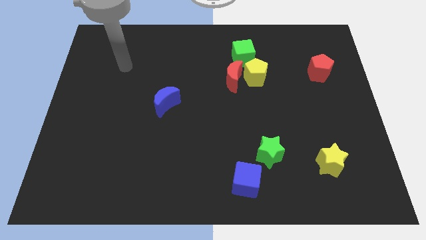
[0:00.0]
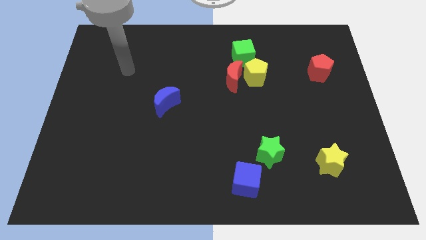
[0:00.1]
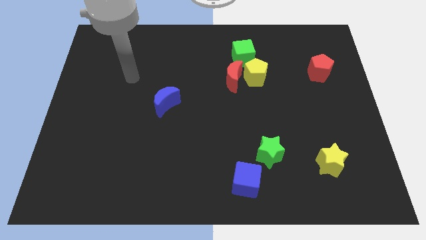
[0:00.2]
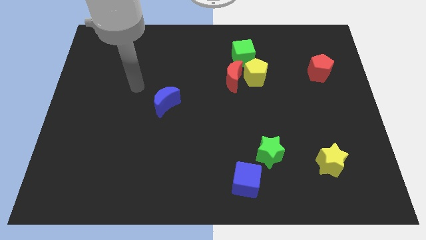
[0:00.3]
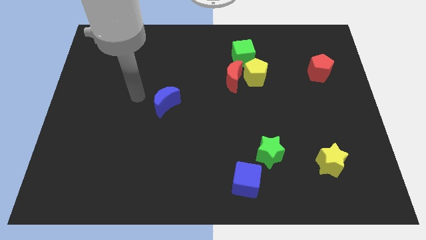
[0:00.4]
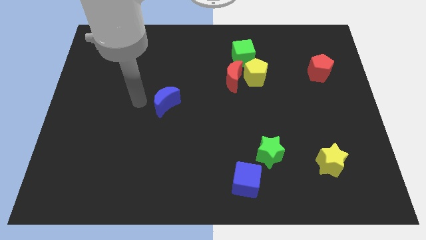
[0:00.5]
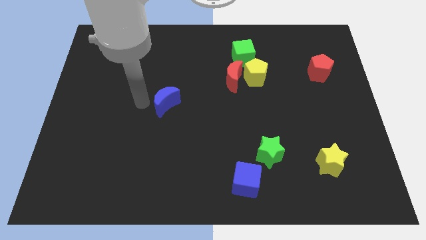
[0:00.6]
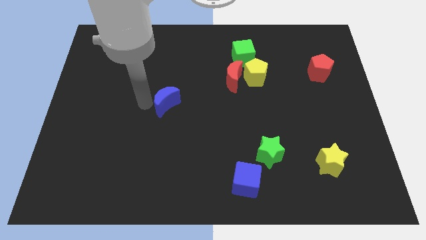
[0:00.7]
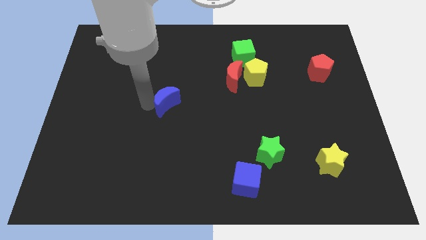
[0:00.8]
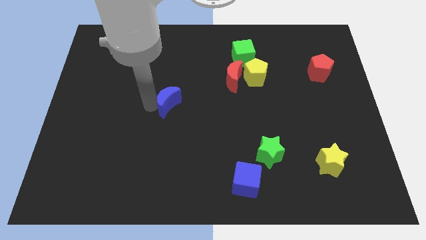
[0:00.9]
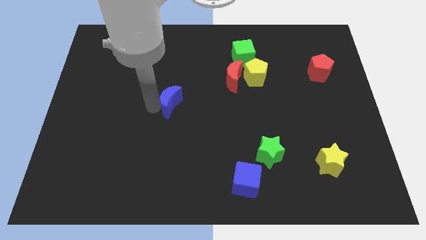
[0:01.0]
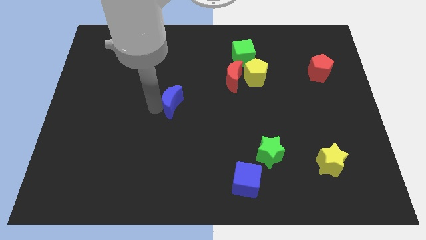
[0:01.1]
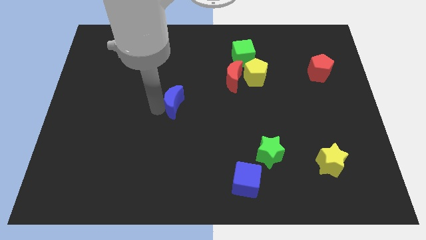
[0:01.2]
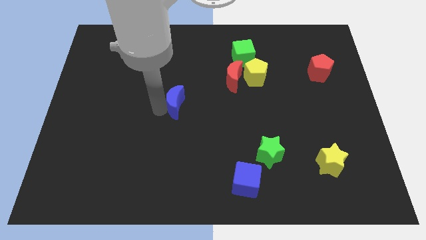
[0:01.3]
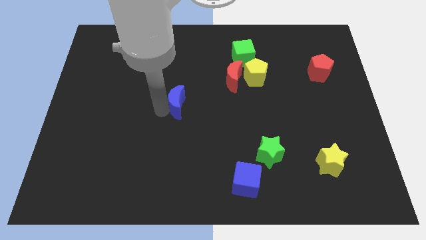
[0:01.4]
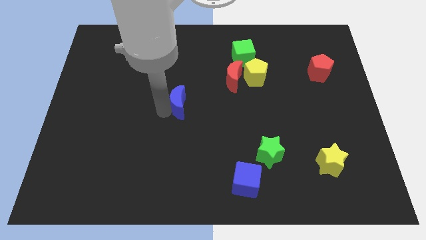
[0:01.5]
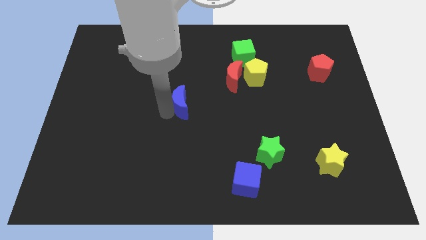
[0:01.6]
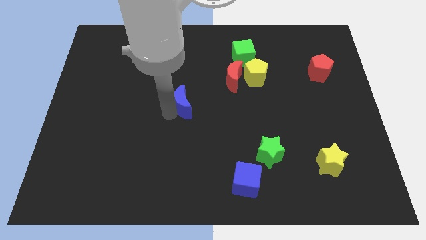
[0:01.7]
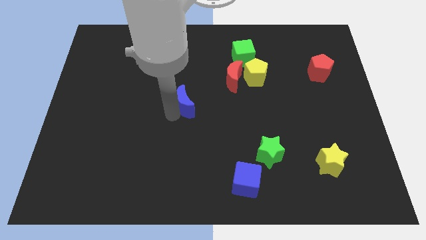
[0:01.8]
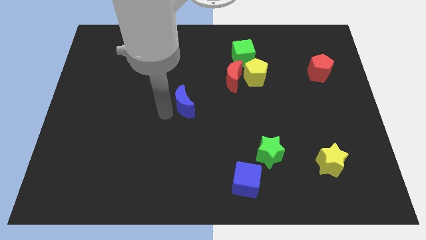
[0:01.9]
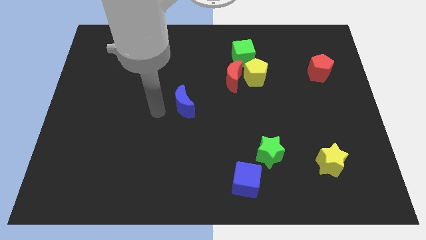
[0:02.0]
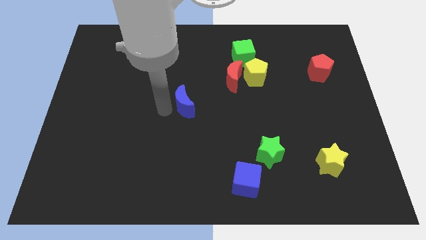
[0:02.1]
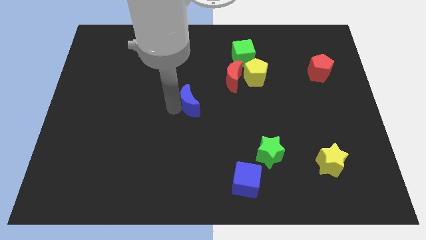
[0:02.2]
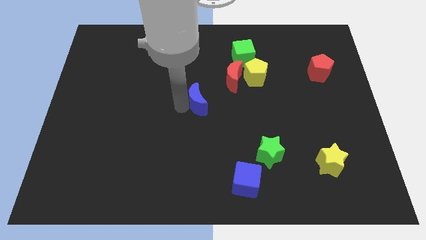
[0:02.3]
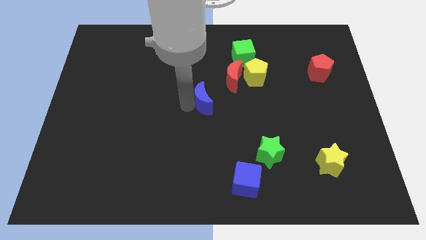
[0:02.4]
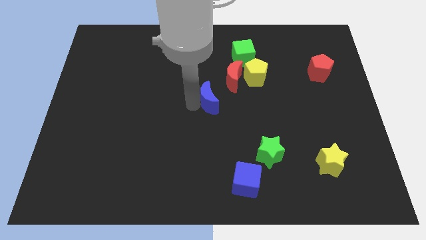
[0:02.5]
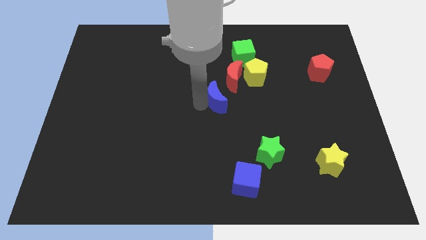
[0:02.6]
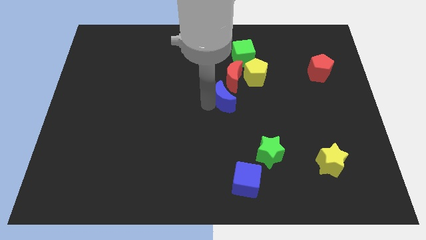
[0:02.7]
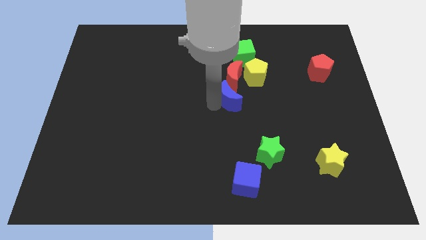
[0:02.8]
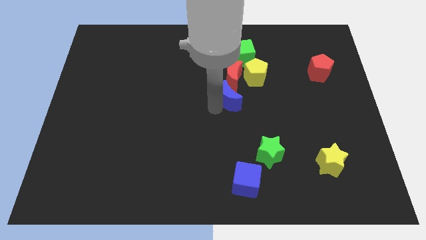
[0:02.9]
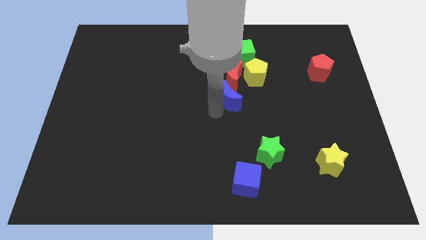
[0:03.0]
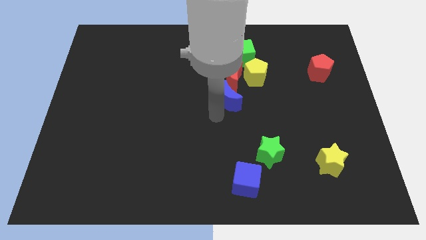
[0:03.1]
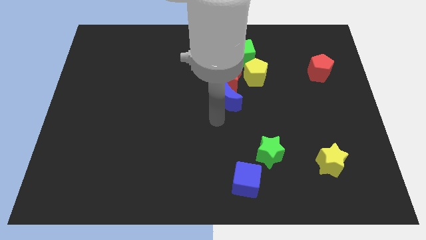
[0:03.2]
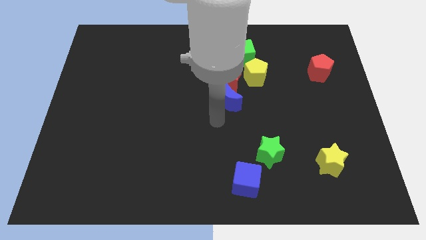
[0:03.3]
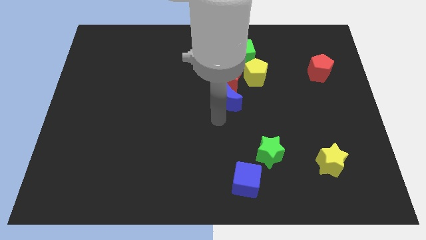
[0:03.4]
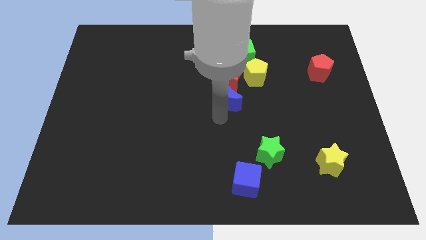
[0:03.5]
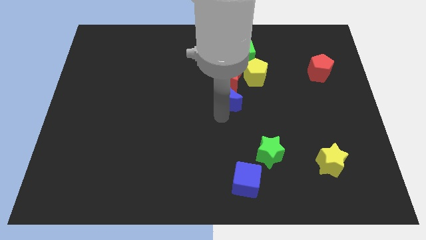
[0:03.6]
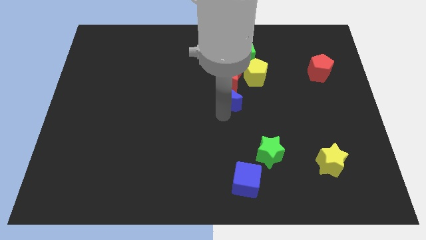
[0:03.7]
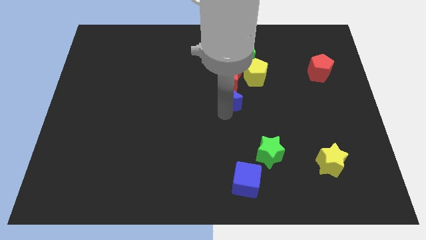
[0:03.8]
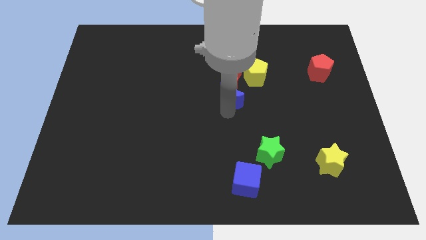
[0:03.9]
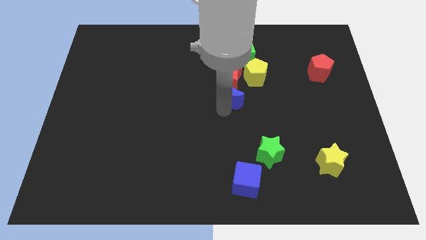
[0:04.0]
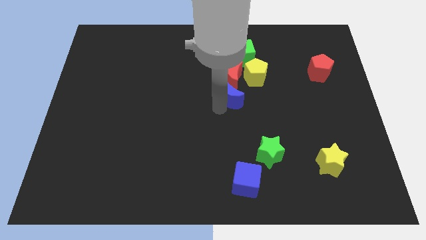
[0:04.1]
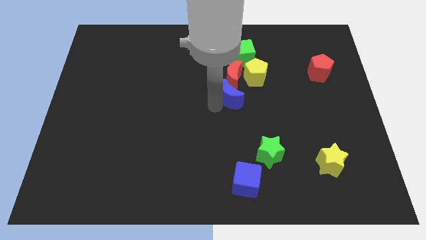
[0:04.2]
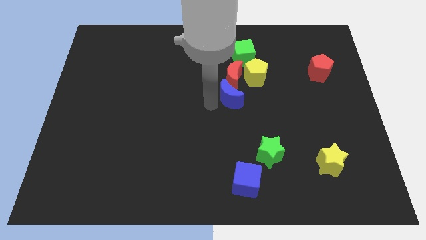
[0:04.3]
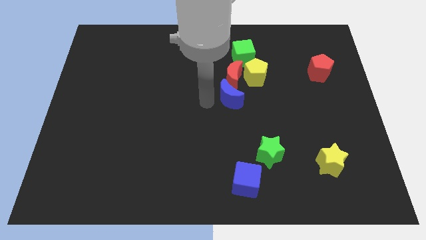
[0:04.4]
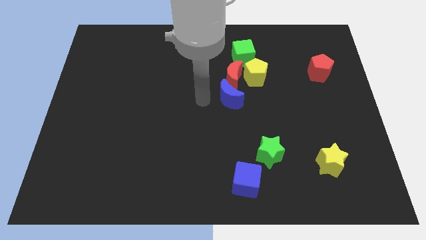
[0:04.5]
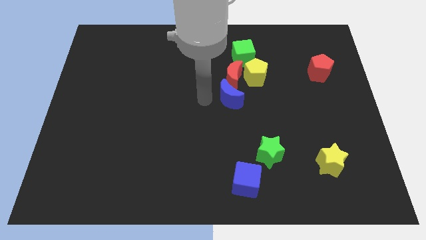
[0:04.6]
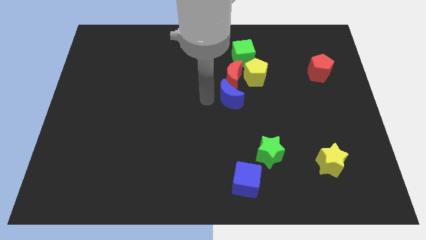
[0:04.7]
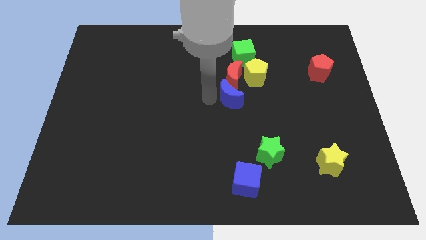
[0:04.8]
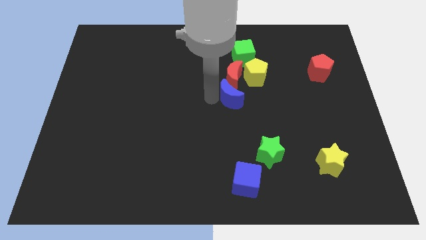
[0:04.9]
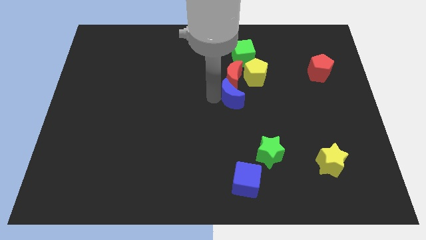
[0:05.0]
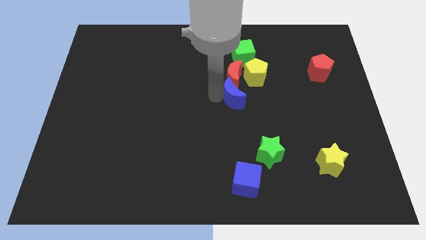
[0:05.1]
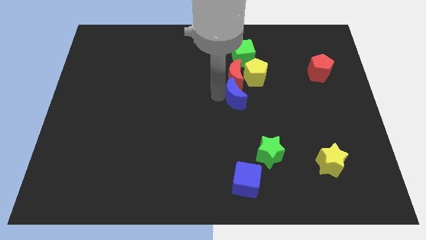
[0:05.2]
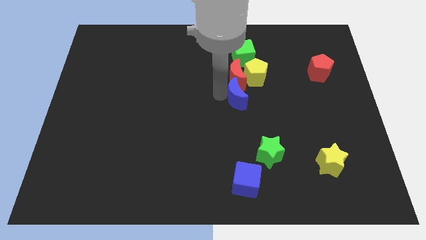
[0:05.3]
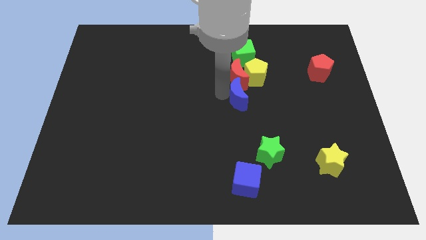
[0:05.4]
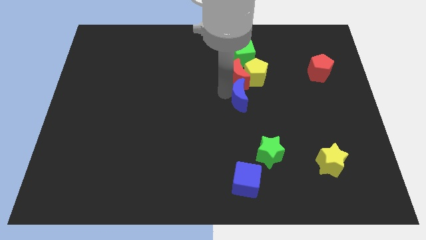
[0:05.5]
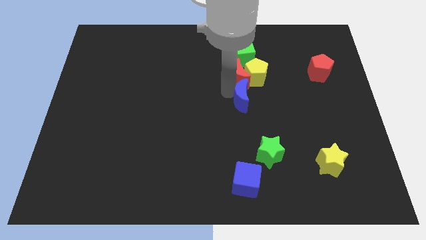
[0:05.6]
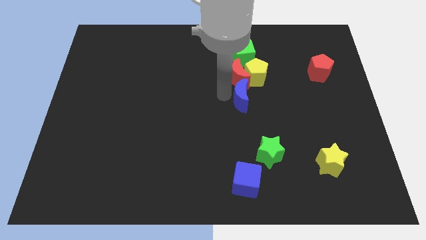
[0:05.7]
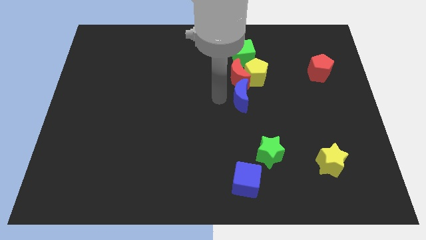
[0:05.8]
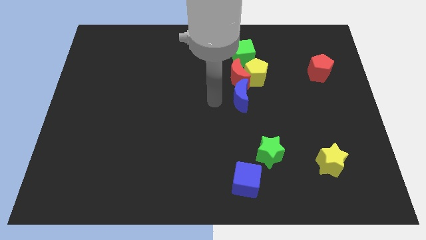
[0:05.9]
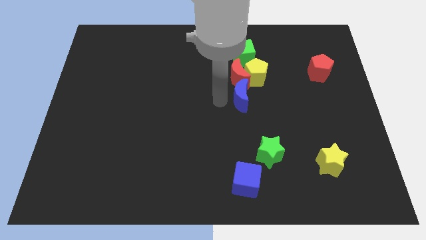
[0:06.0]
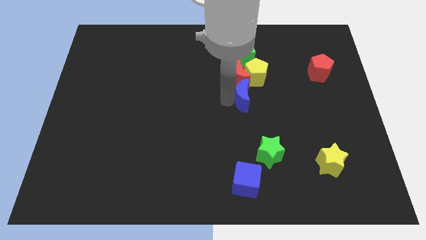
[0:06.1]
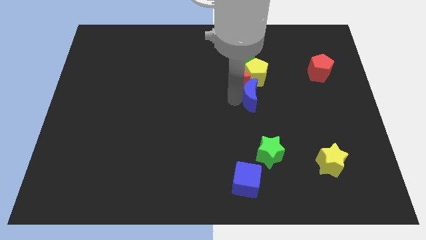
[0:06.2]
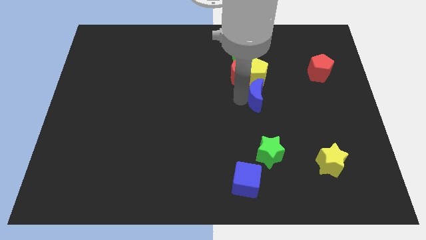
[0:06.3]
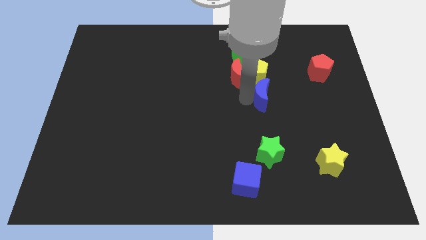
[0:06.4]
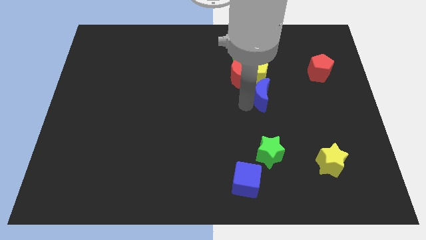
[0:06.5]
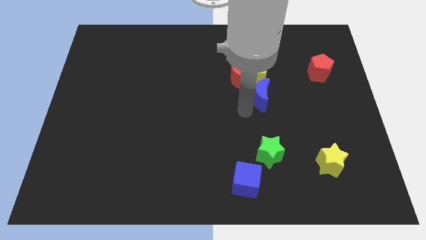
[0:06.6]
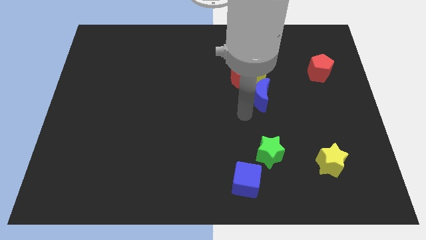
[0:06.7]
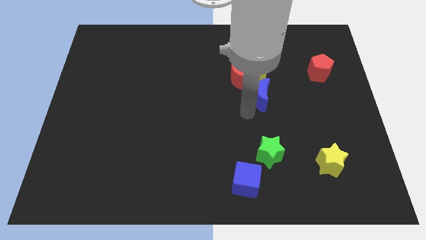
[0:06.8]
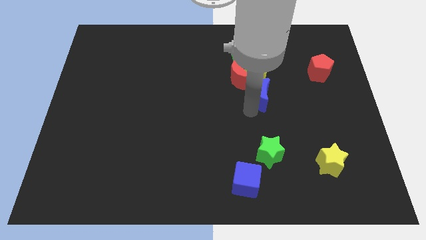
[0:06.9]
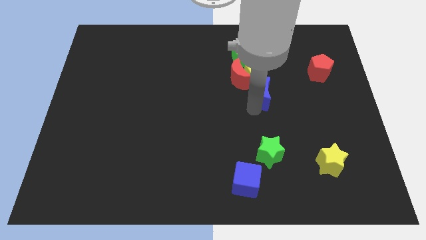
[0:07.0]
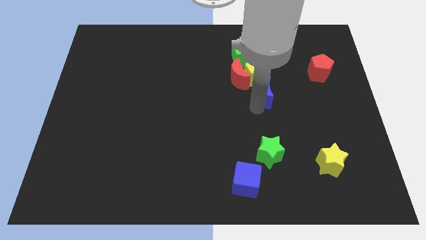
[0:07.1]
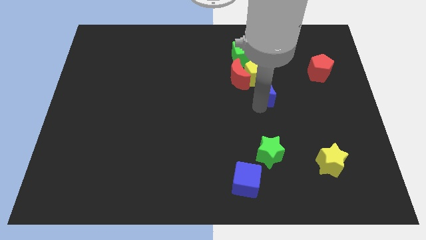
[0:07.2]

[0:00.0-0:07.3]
put the blue moon just right of the red moon
